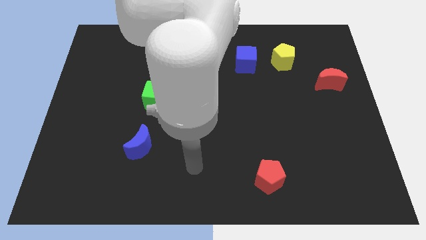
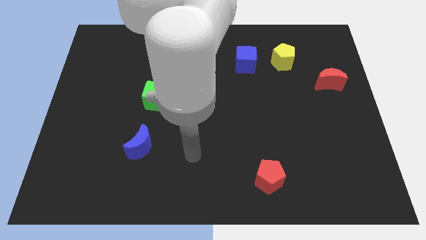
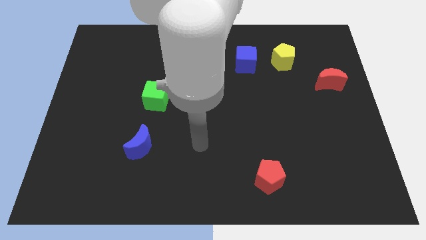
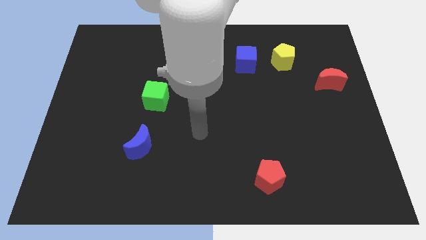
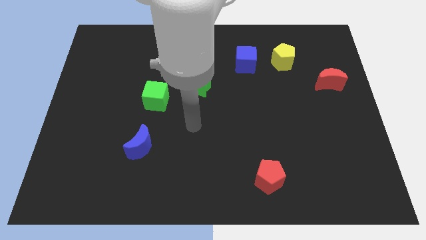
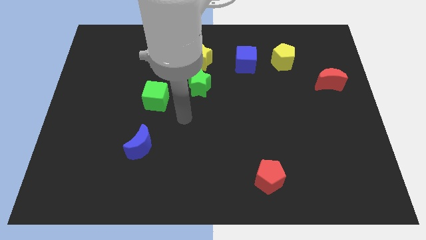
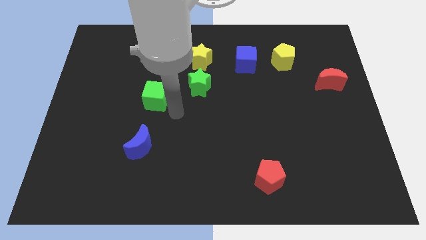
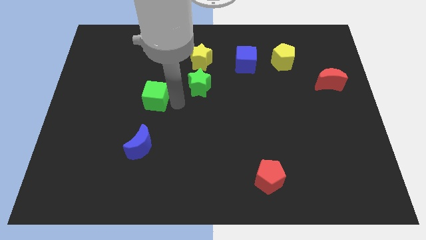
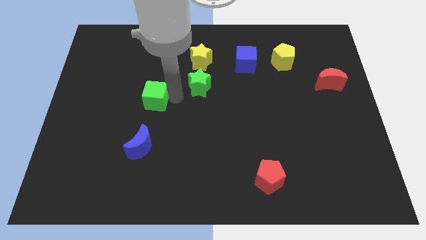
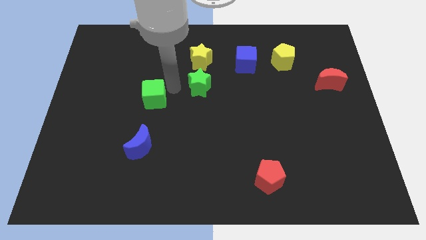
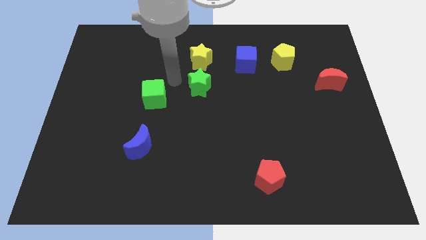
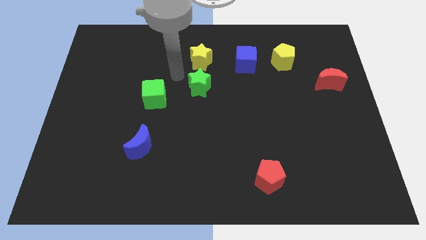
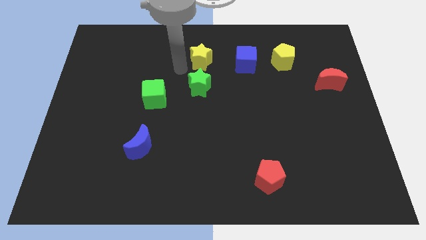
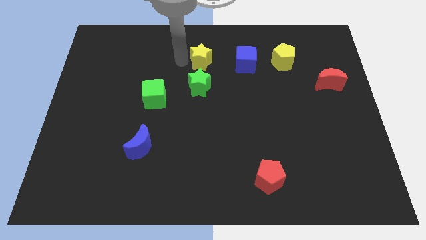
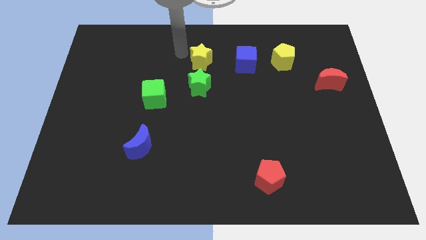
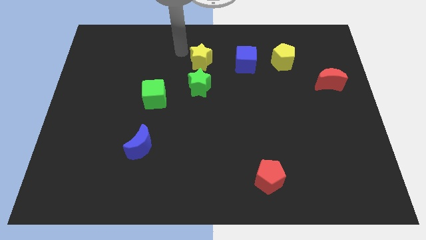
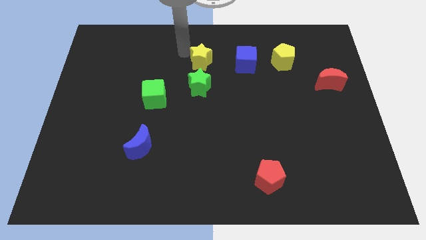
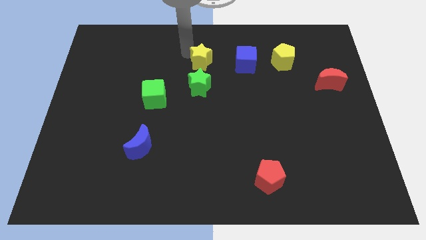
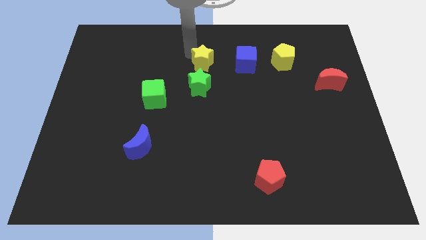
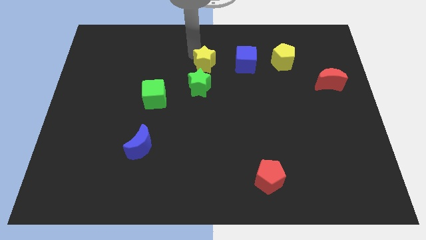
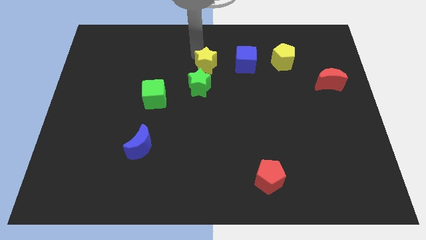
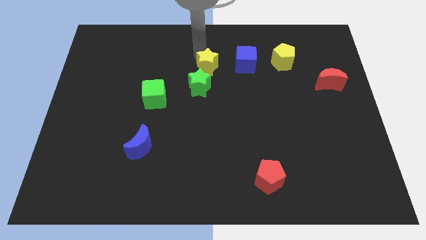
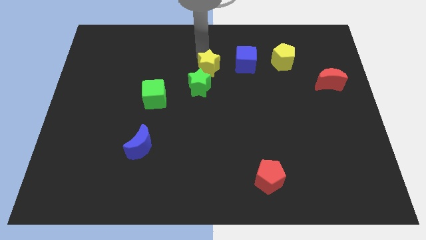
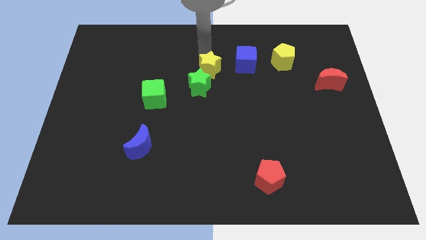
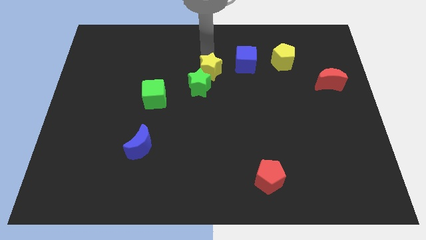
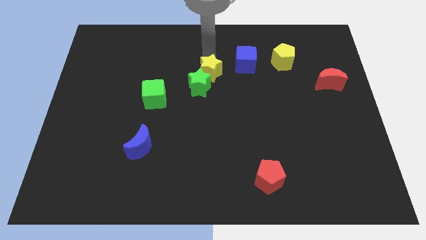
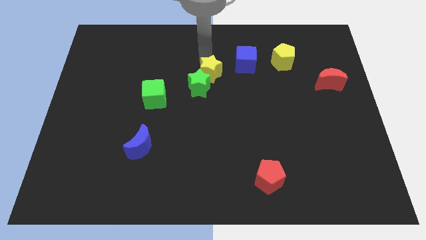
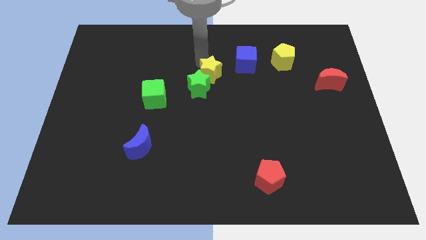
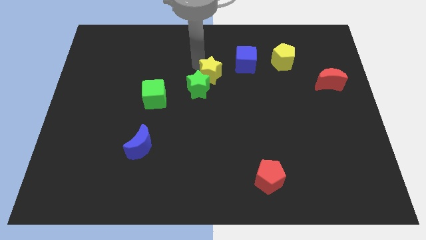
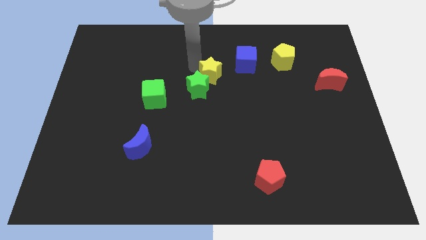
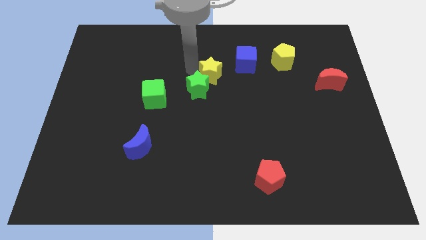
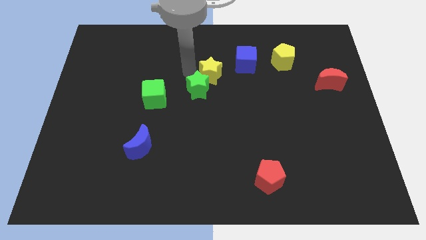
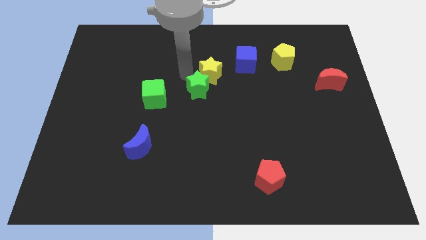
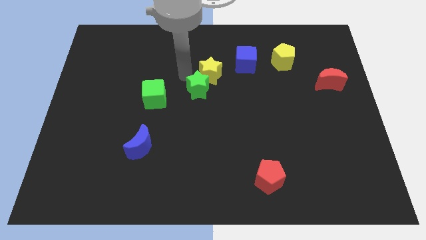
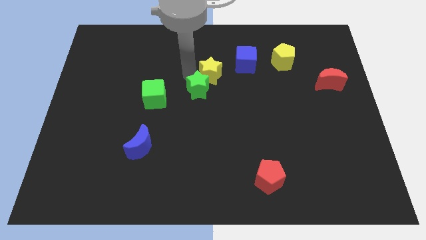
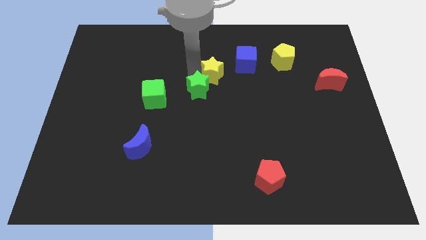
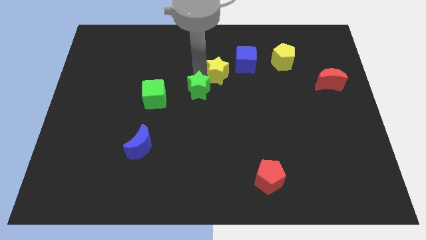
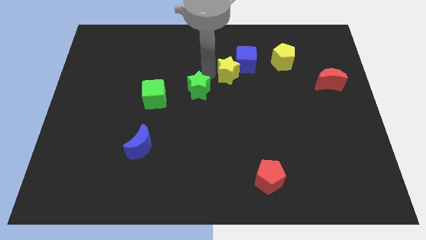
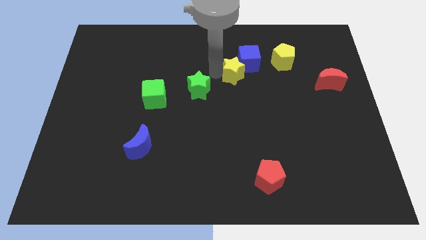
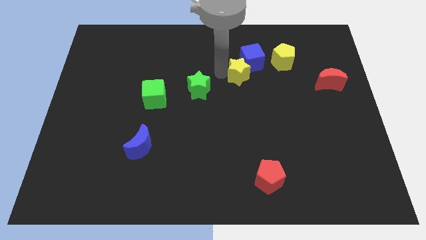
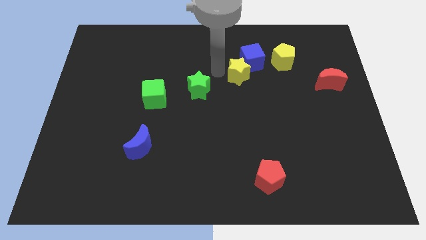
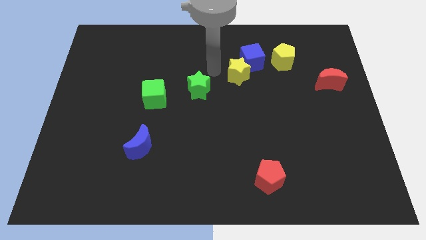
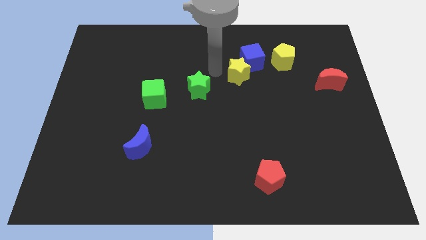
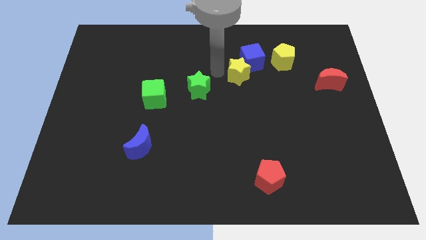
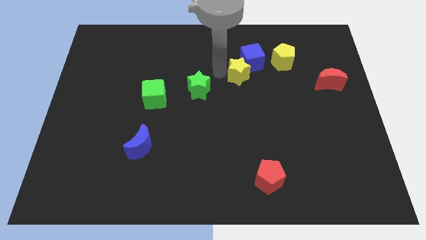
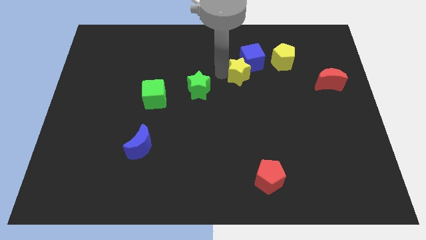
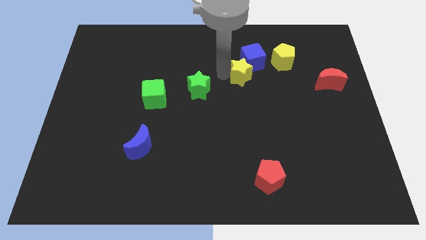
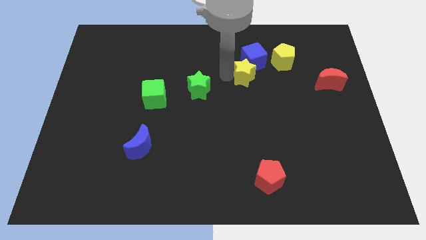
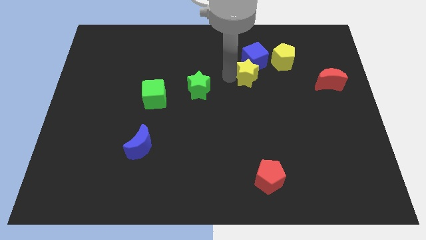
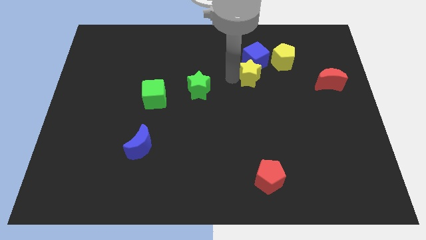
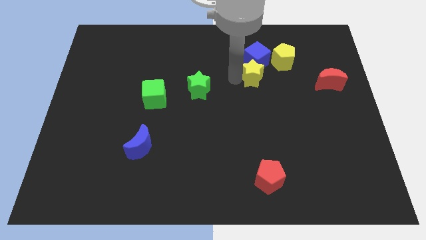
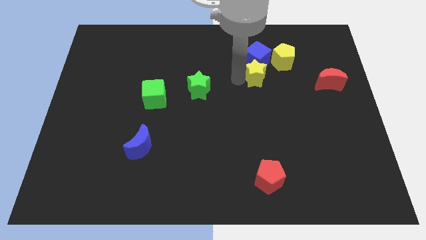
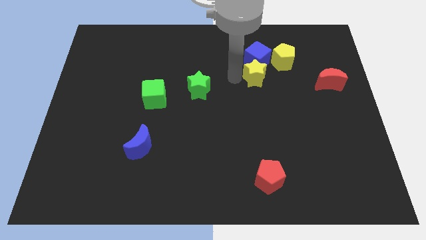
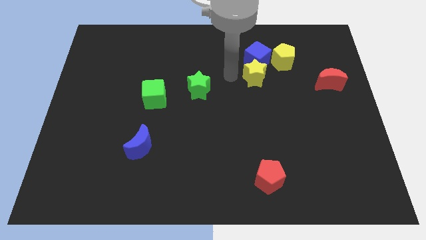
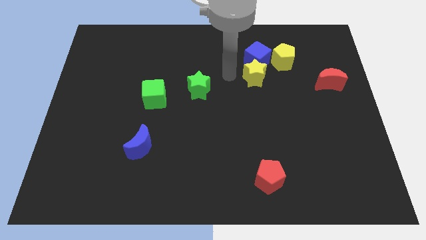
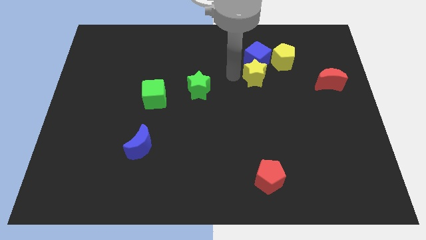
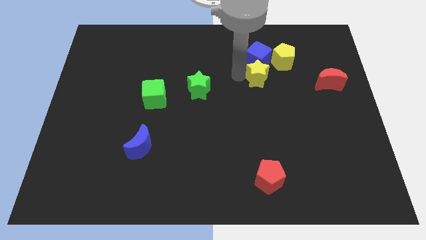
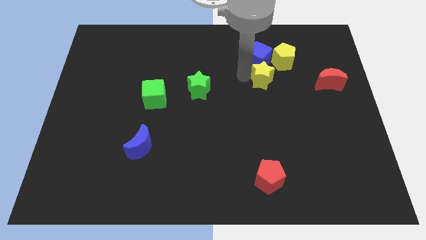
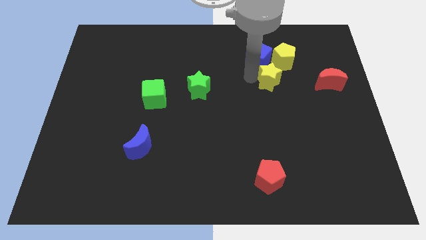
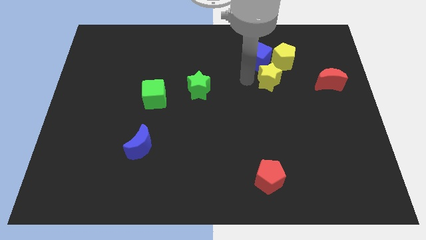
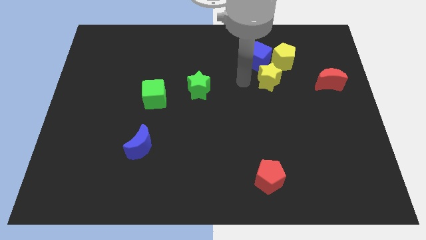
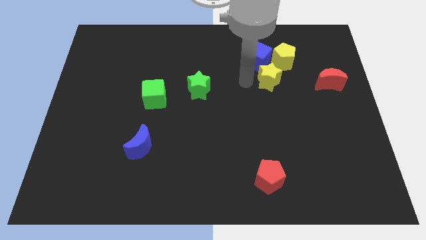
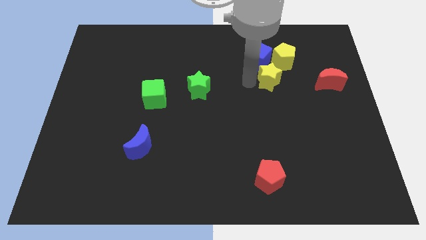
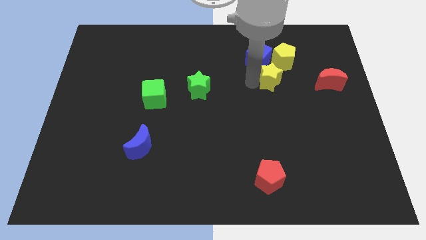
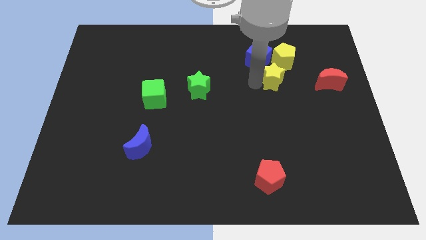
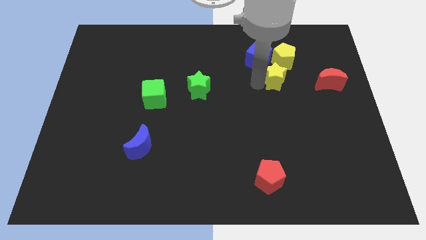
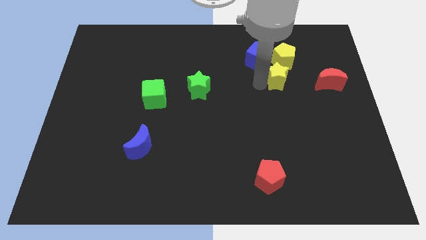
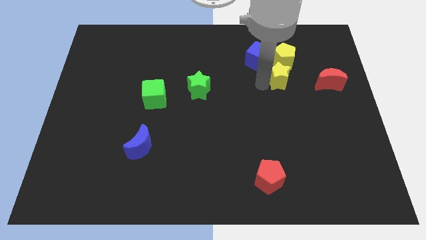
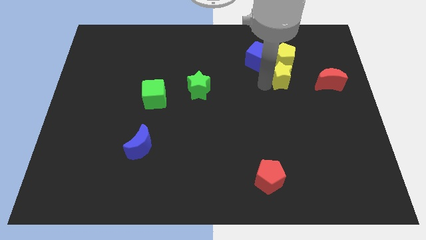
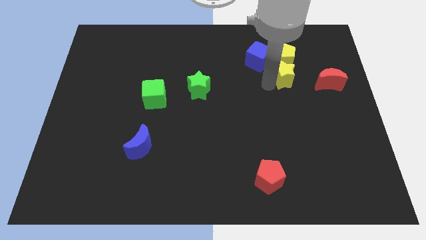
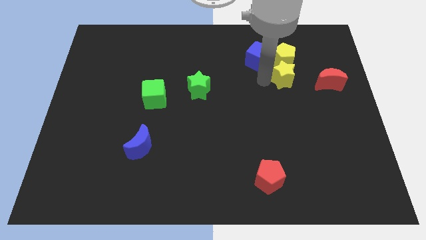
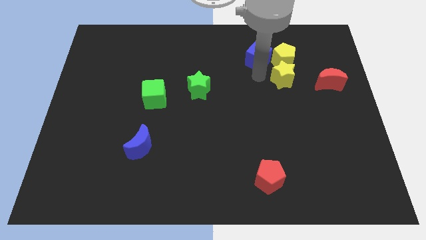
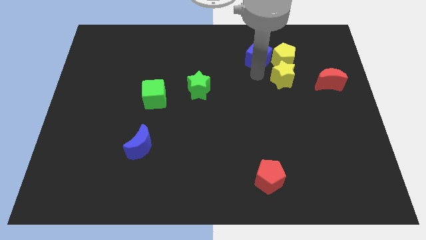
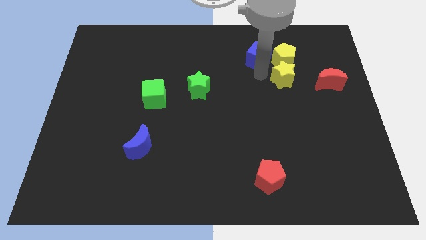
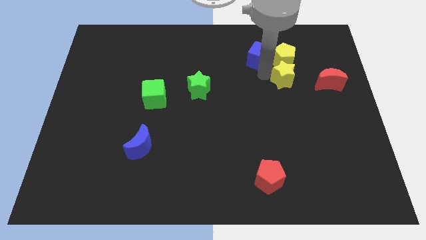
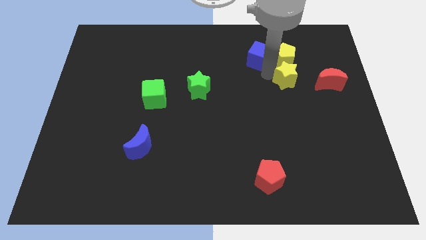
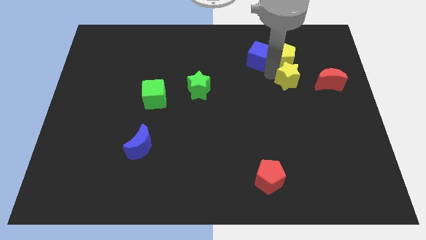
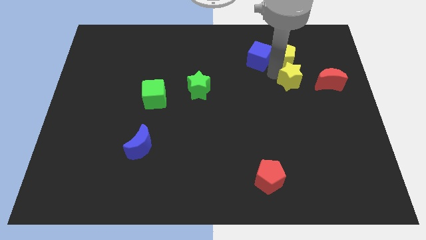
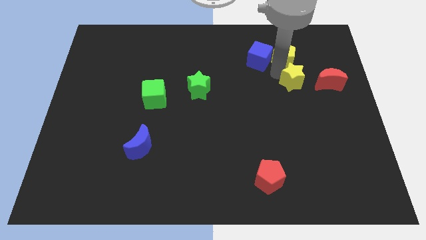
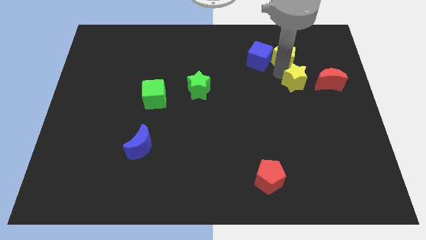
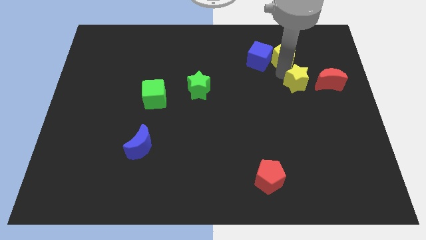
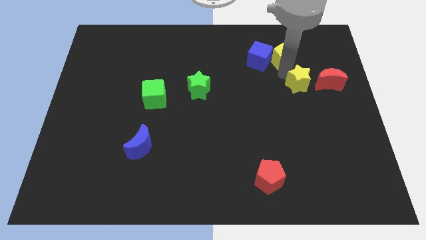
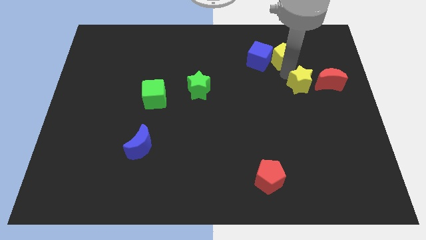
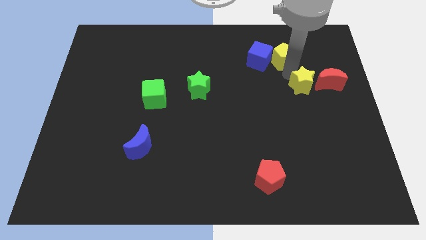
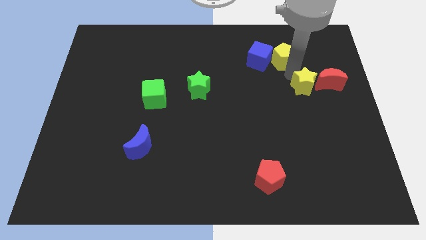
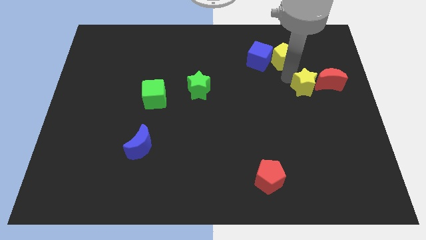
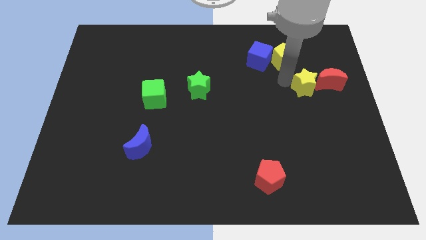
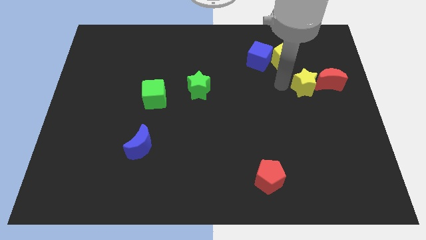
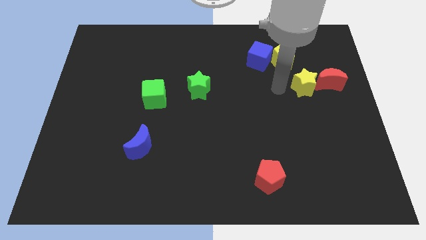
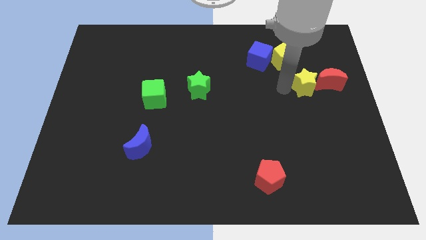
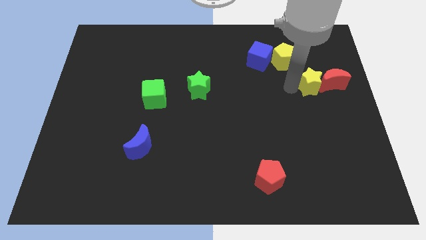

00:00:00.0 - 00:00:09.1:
slide the yellow star close to the red moon
